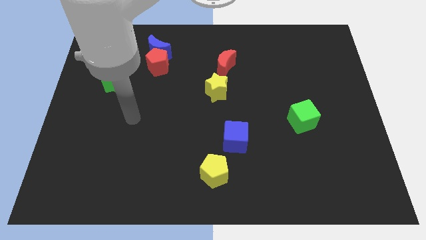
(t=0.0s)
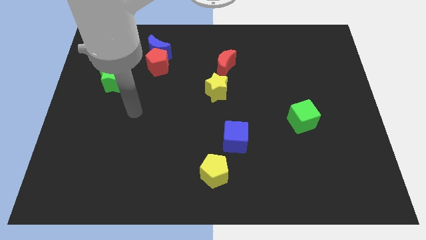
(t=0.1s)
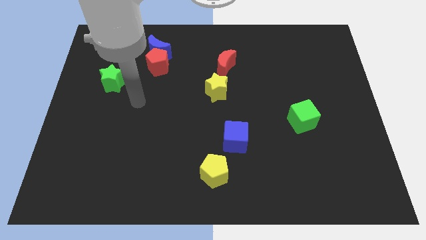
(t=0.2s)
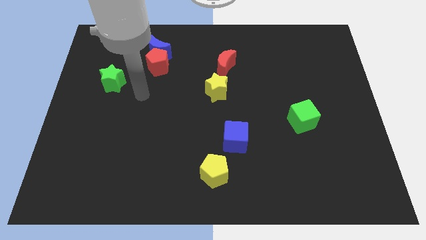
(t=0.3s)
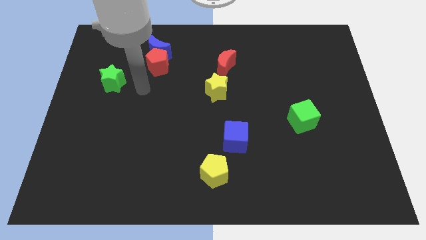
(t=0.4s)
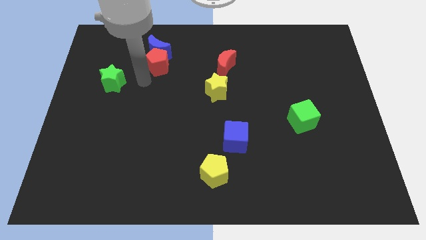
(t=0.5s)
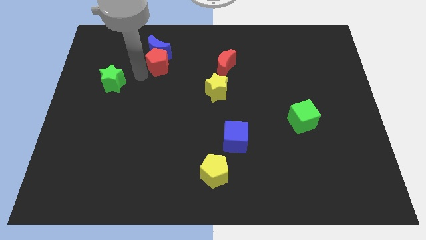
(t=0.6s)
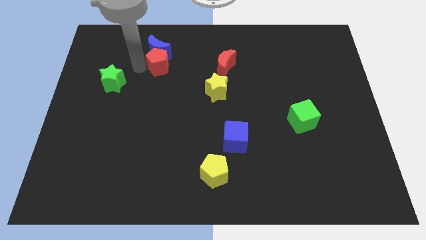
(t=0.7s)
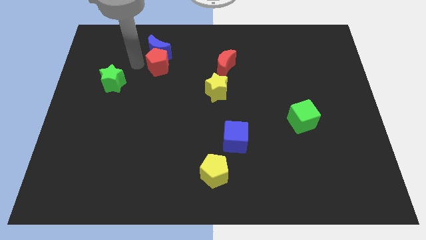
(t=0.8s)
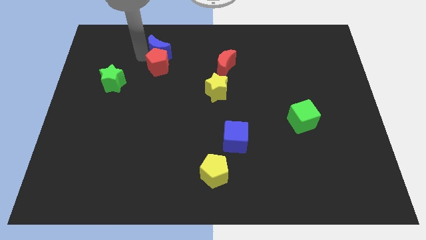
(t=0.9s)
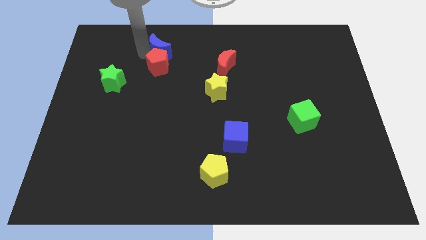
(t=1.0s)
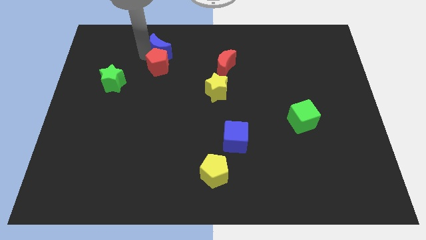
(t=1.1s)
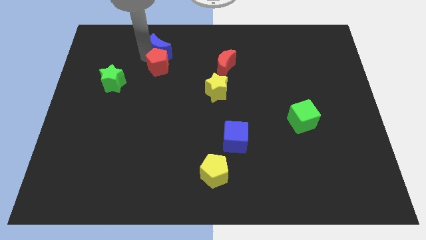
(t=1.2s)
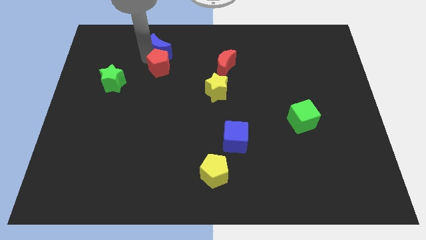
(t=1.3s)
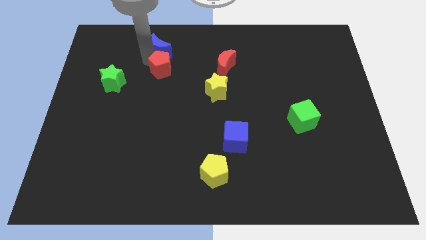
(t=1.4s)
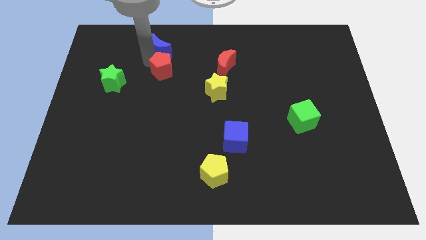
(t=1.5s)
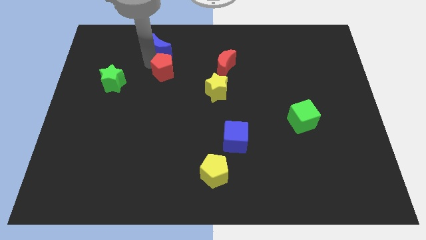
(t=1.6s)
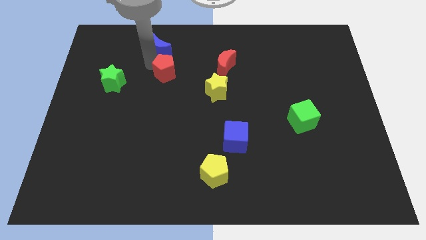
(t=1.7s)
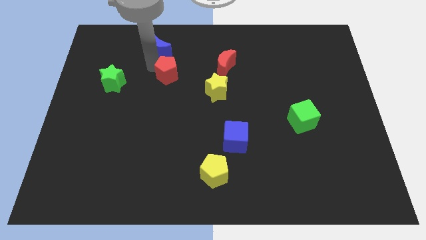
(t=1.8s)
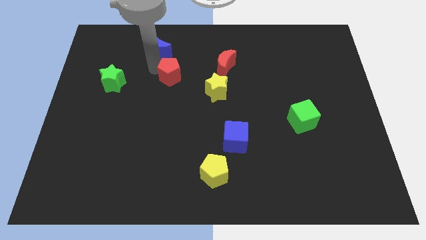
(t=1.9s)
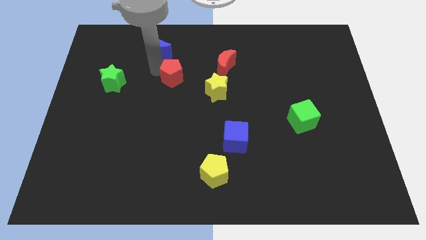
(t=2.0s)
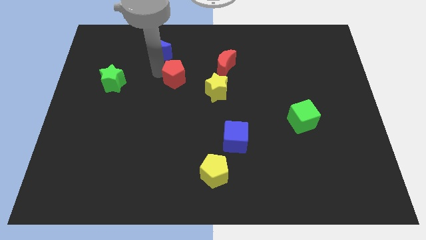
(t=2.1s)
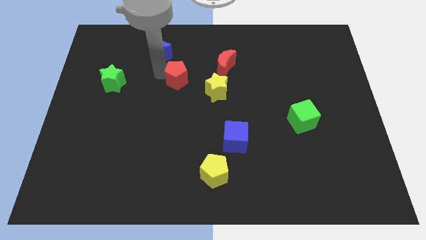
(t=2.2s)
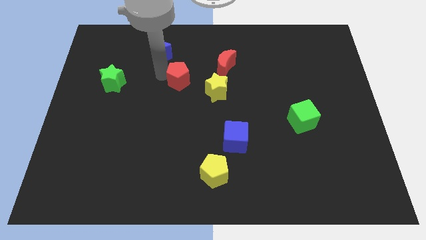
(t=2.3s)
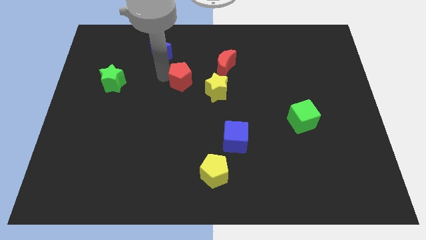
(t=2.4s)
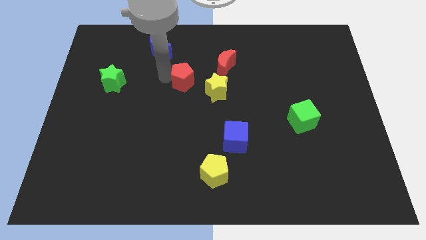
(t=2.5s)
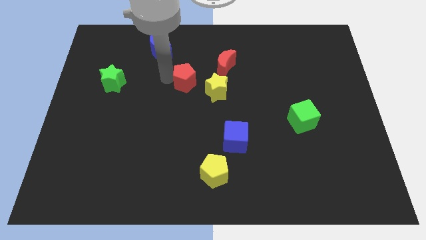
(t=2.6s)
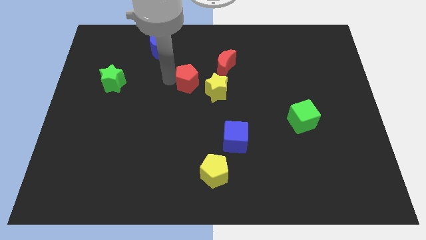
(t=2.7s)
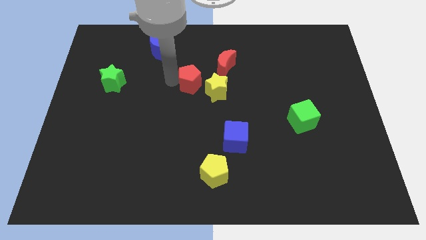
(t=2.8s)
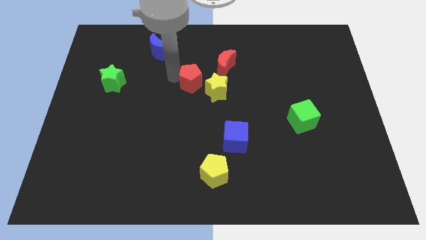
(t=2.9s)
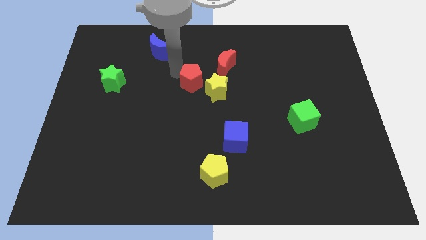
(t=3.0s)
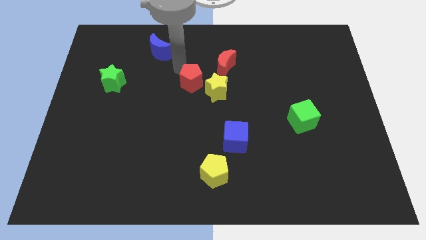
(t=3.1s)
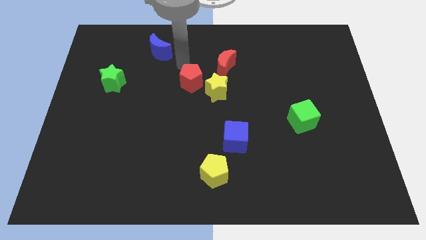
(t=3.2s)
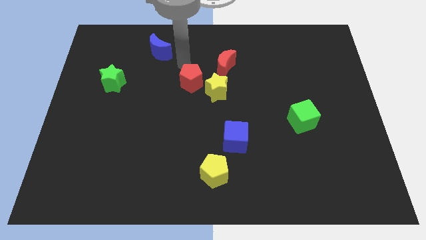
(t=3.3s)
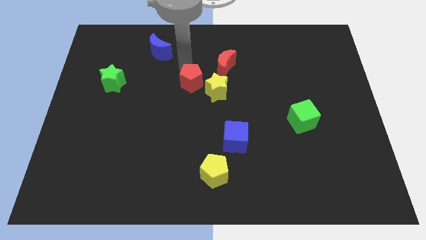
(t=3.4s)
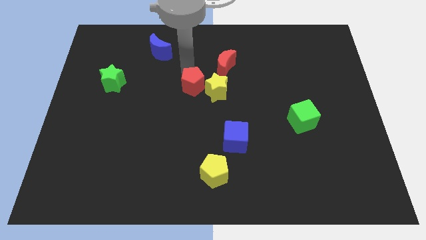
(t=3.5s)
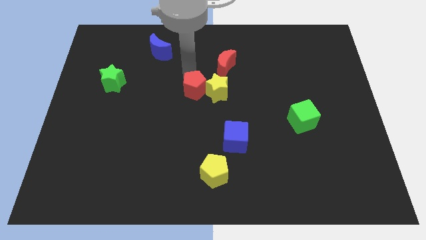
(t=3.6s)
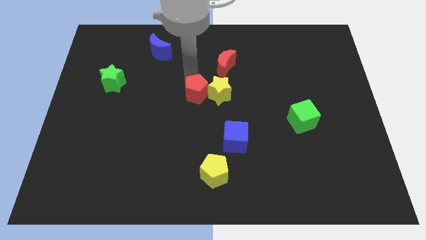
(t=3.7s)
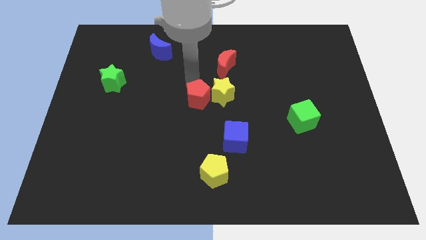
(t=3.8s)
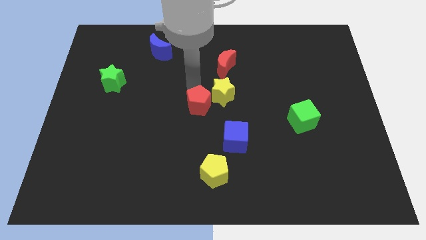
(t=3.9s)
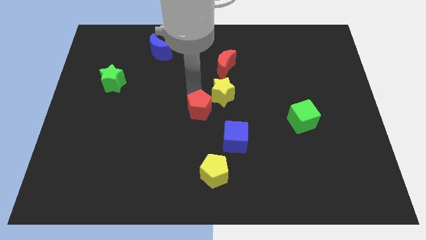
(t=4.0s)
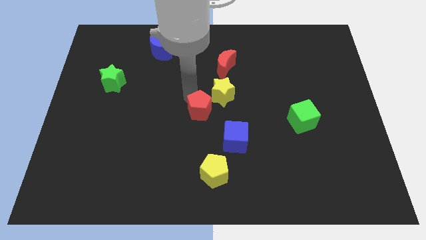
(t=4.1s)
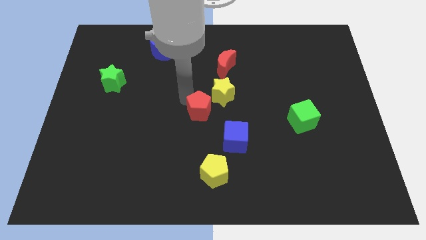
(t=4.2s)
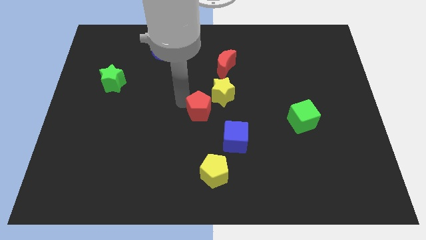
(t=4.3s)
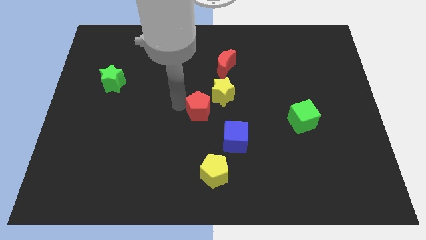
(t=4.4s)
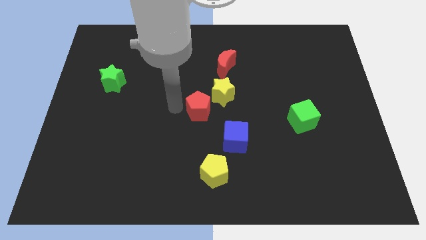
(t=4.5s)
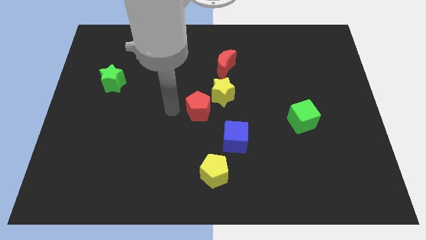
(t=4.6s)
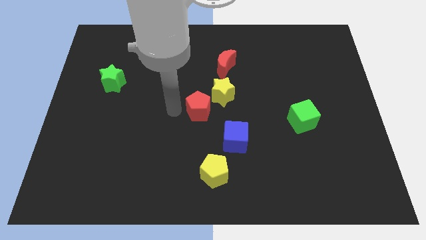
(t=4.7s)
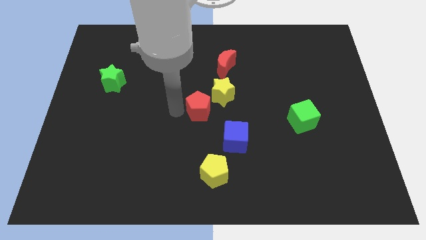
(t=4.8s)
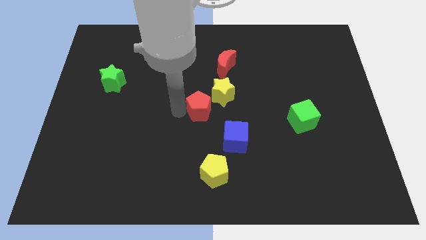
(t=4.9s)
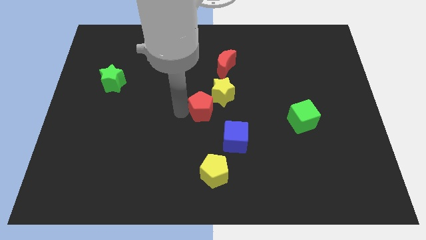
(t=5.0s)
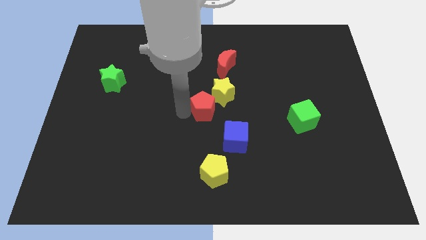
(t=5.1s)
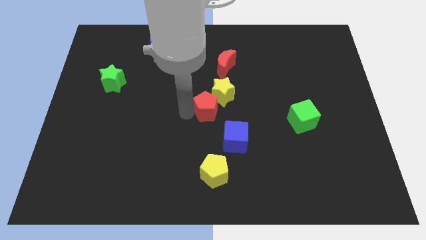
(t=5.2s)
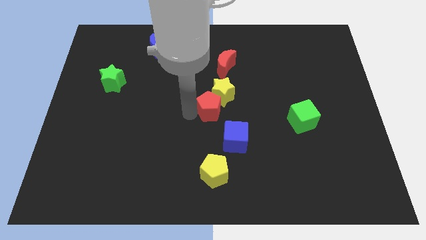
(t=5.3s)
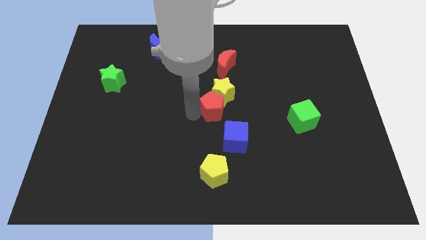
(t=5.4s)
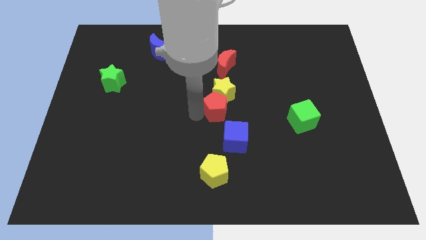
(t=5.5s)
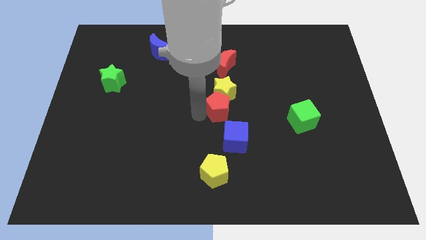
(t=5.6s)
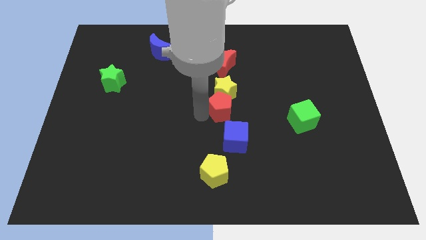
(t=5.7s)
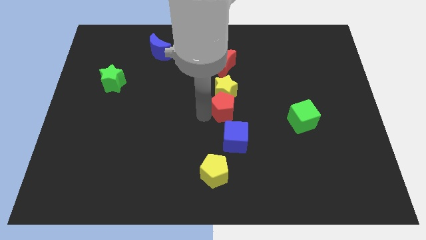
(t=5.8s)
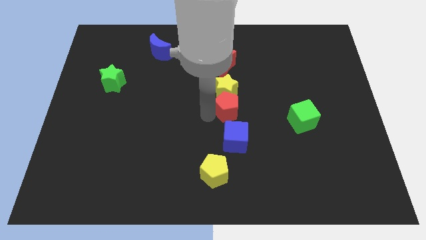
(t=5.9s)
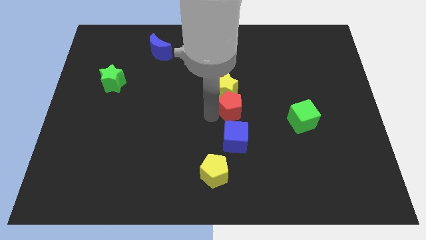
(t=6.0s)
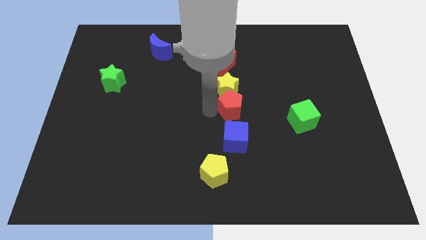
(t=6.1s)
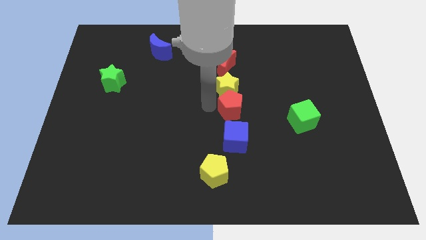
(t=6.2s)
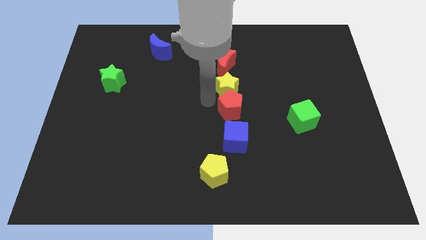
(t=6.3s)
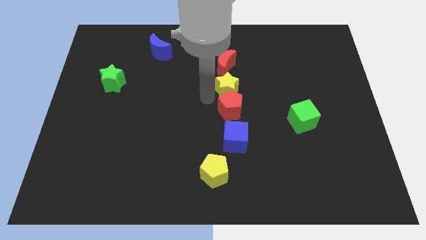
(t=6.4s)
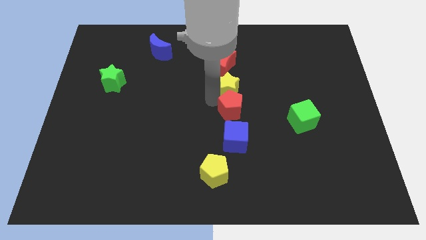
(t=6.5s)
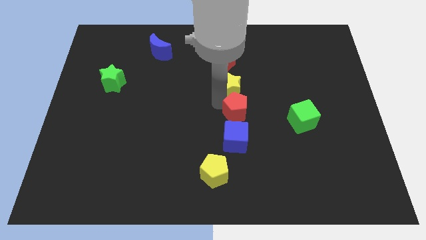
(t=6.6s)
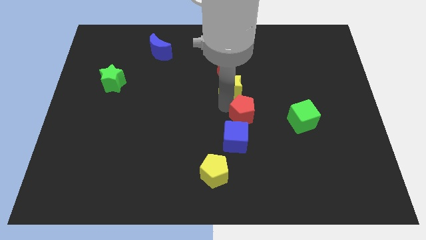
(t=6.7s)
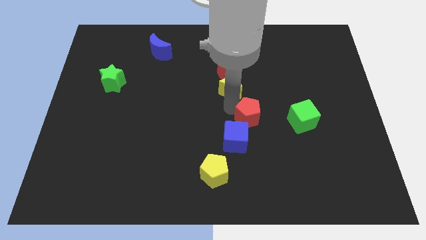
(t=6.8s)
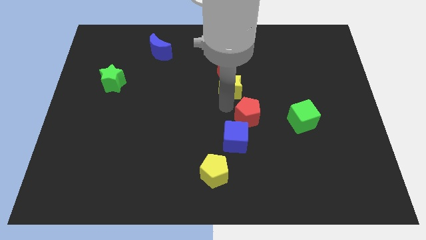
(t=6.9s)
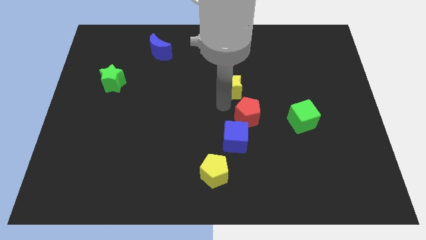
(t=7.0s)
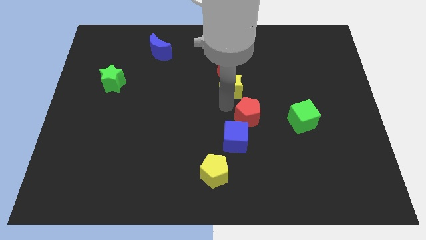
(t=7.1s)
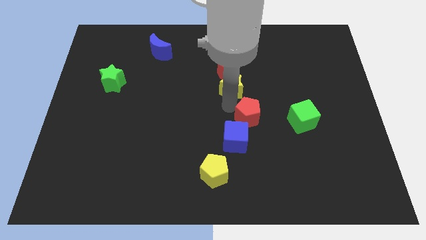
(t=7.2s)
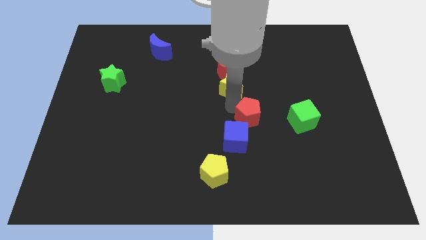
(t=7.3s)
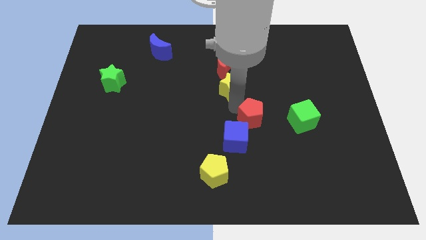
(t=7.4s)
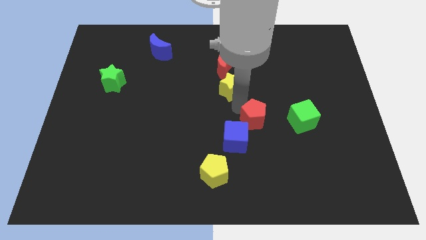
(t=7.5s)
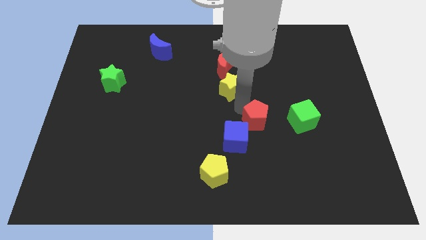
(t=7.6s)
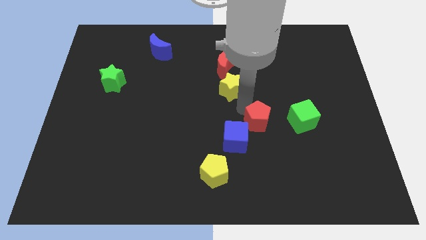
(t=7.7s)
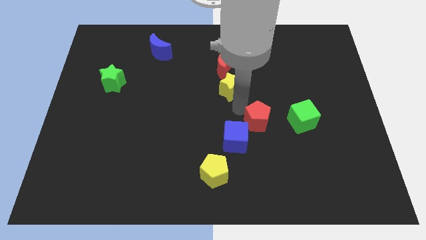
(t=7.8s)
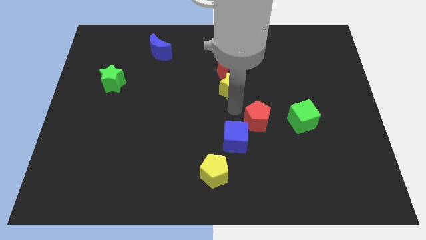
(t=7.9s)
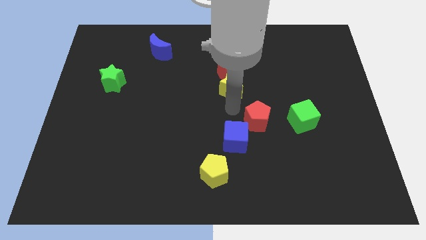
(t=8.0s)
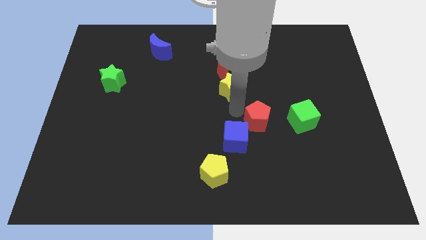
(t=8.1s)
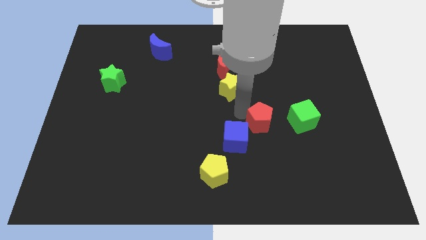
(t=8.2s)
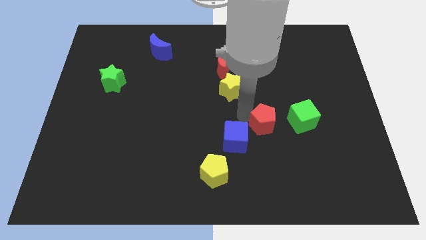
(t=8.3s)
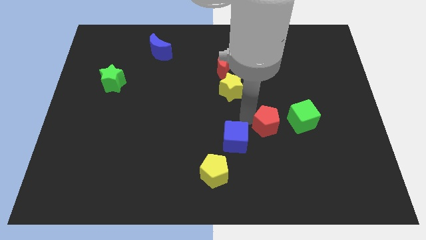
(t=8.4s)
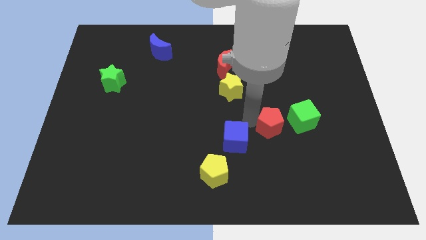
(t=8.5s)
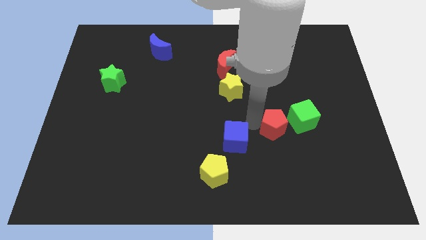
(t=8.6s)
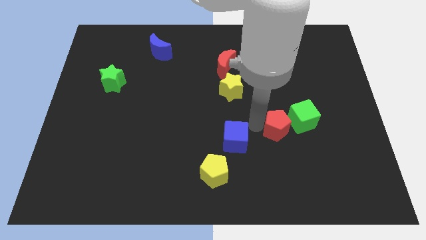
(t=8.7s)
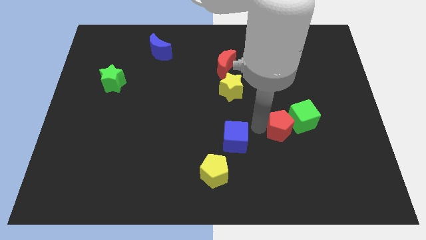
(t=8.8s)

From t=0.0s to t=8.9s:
push the red pentagon next to the green cube
